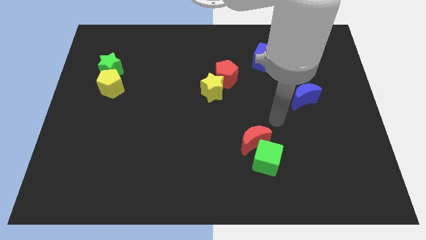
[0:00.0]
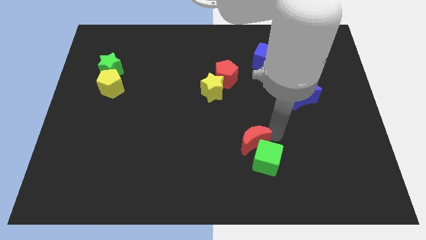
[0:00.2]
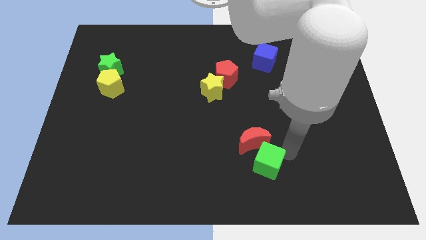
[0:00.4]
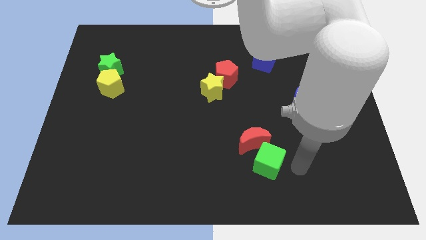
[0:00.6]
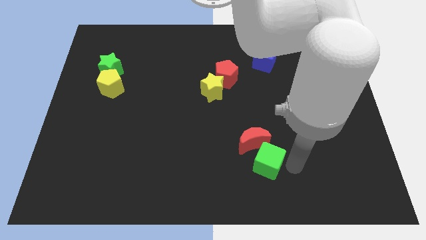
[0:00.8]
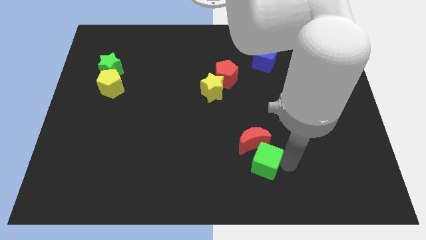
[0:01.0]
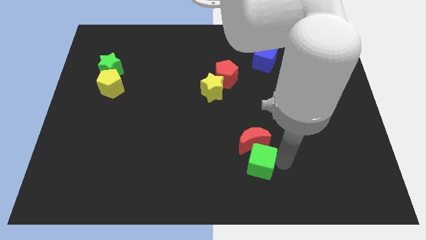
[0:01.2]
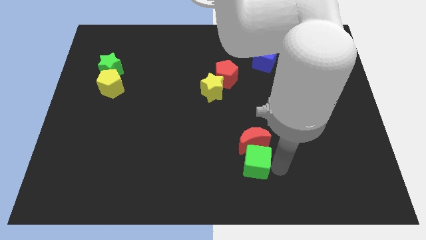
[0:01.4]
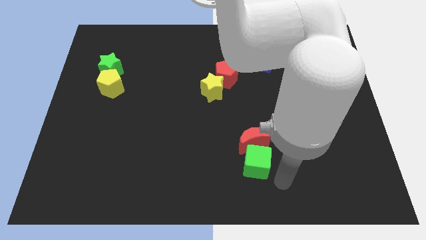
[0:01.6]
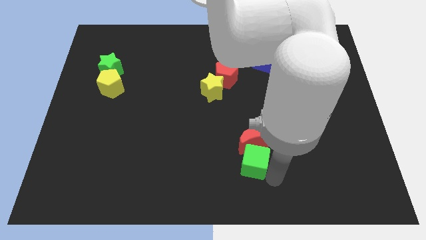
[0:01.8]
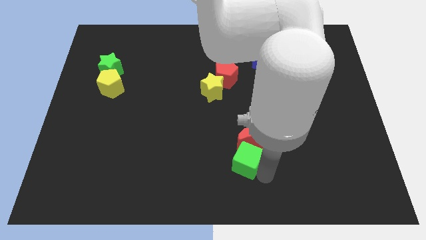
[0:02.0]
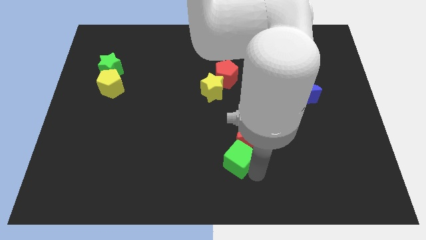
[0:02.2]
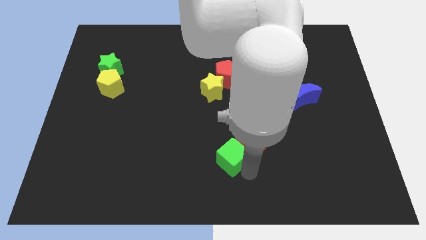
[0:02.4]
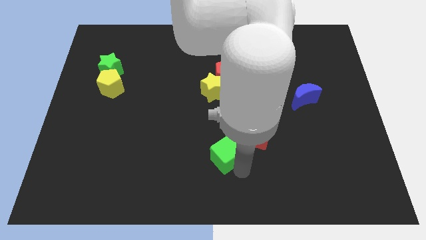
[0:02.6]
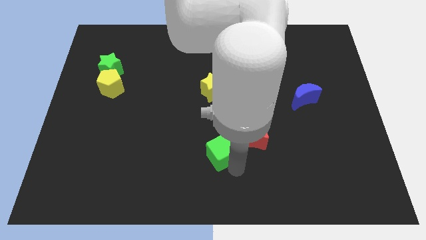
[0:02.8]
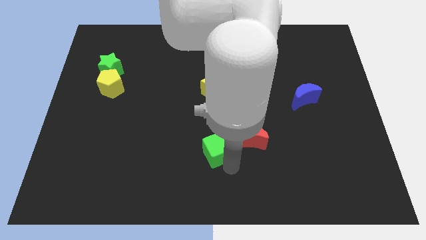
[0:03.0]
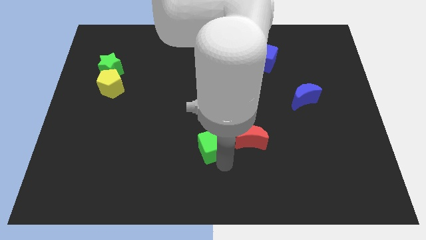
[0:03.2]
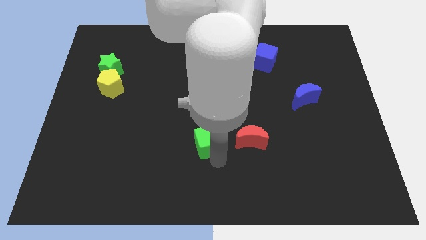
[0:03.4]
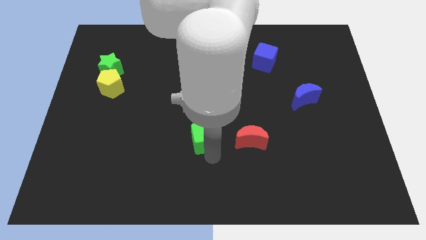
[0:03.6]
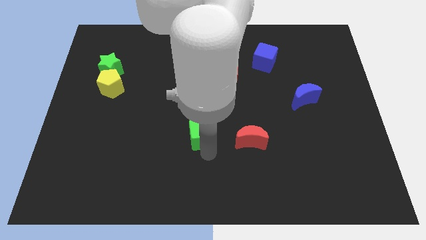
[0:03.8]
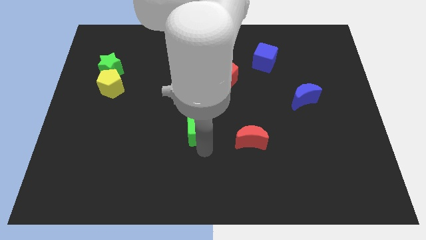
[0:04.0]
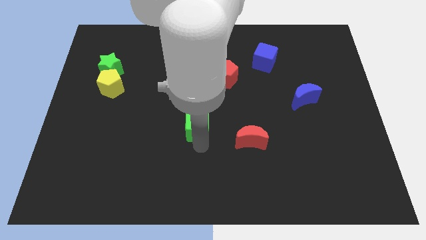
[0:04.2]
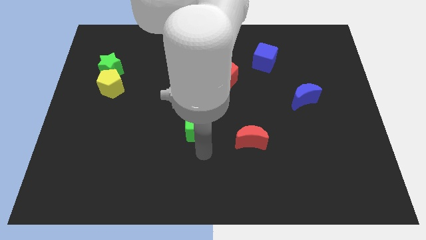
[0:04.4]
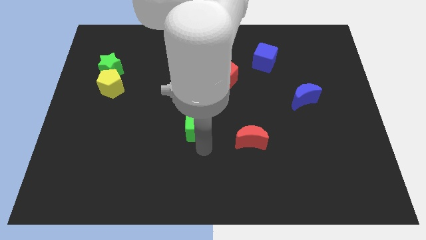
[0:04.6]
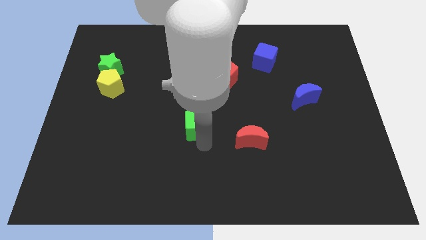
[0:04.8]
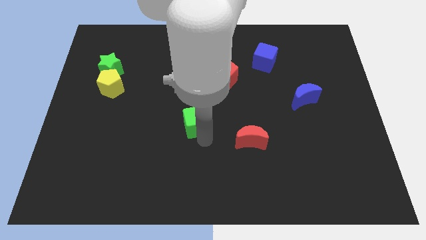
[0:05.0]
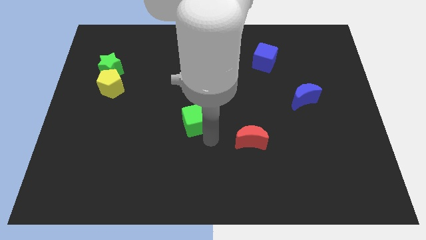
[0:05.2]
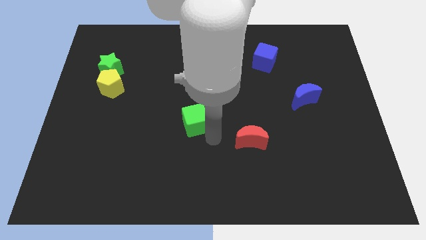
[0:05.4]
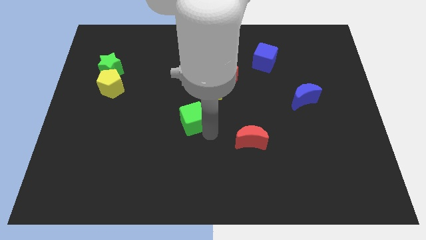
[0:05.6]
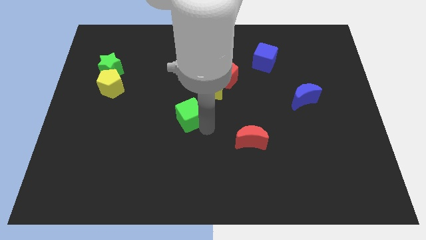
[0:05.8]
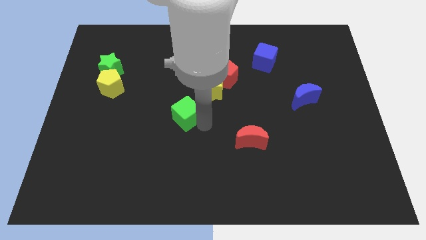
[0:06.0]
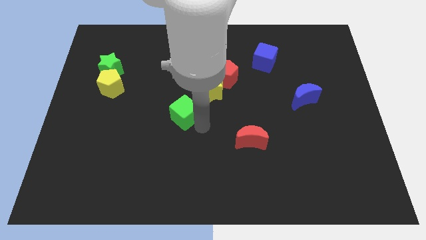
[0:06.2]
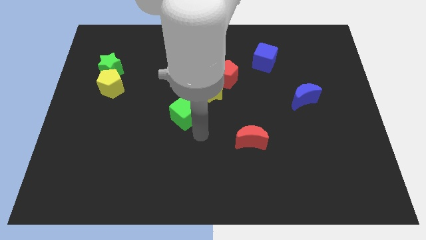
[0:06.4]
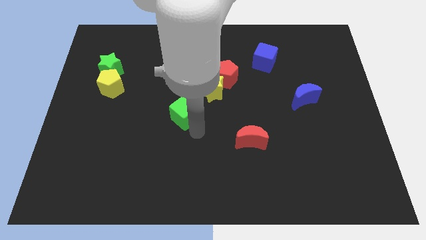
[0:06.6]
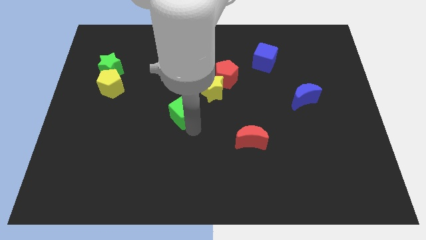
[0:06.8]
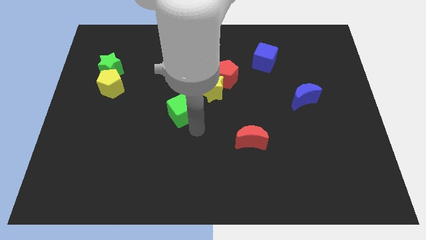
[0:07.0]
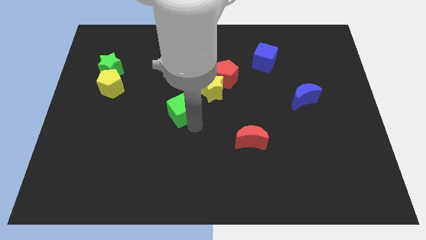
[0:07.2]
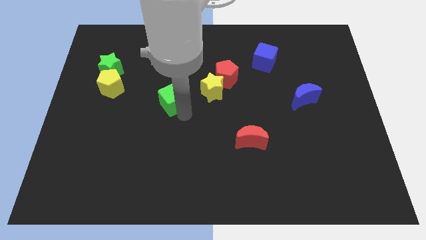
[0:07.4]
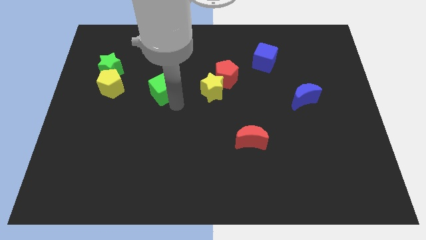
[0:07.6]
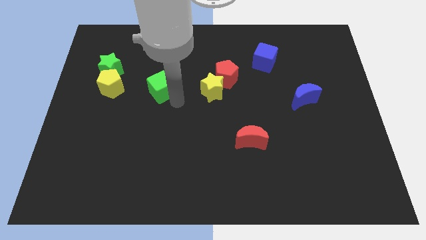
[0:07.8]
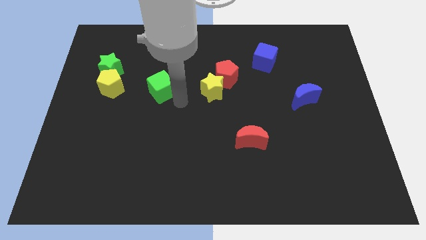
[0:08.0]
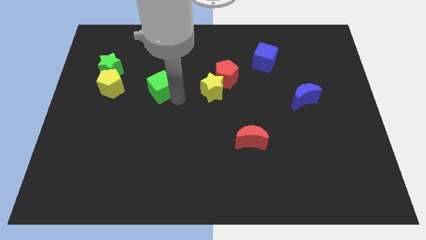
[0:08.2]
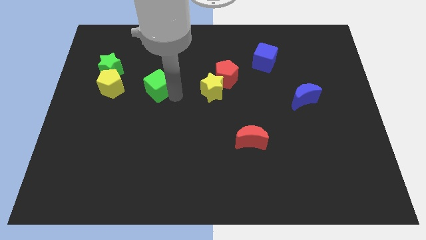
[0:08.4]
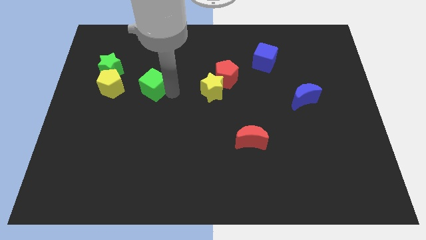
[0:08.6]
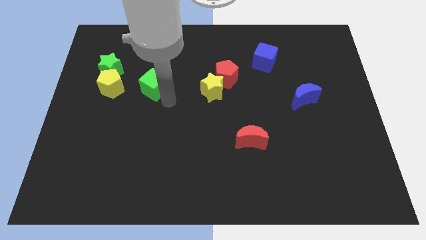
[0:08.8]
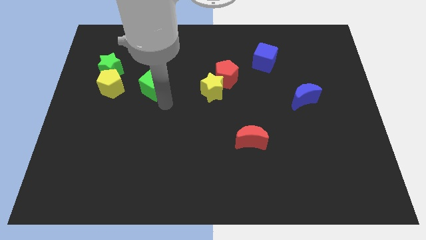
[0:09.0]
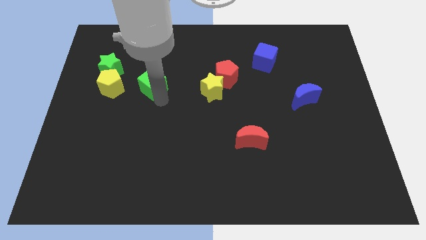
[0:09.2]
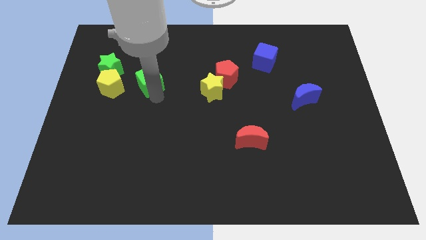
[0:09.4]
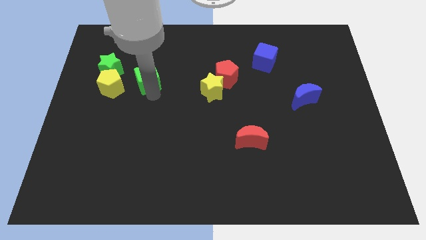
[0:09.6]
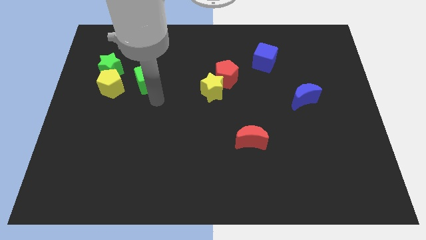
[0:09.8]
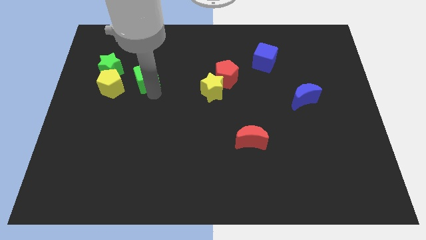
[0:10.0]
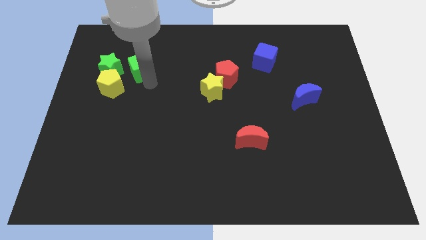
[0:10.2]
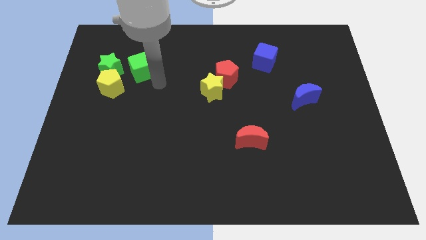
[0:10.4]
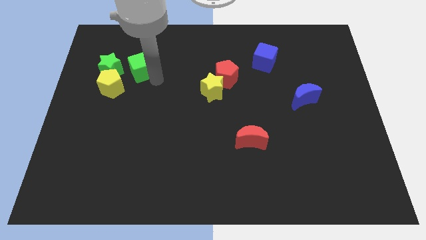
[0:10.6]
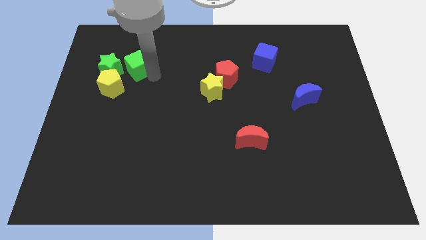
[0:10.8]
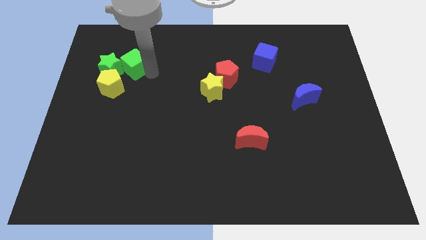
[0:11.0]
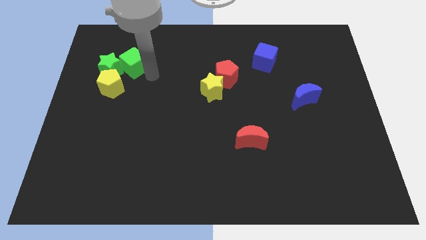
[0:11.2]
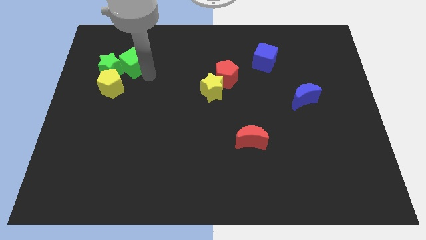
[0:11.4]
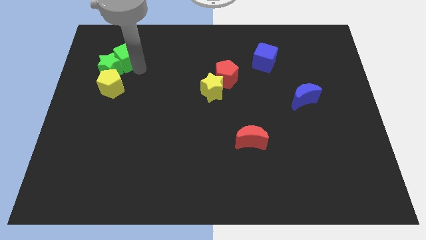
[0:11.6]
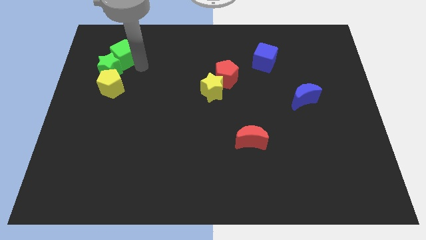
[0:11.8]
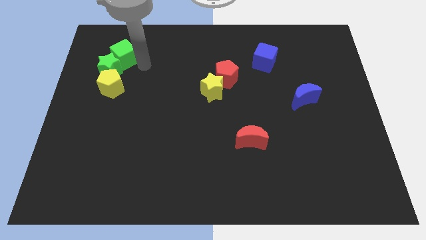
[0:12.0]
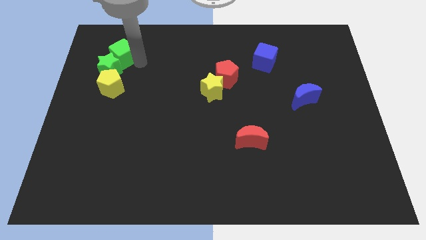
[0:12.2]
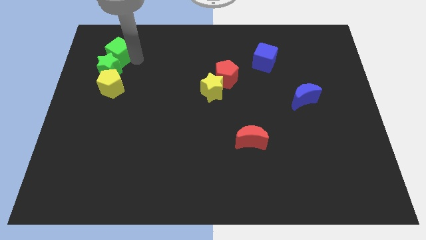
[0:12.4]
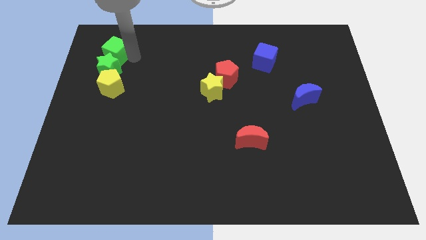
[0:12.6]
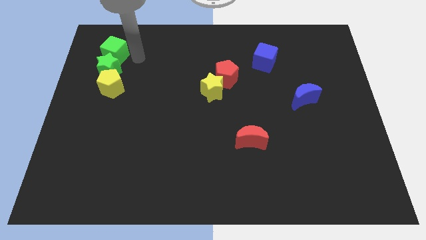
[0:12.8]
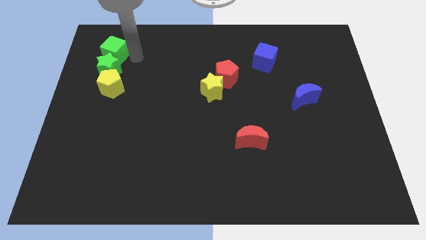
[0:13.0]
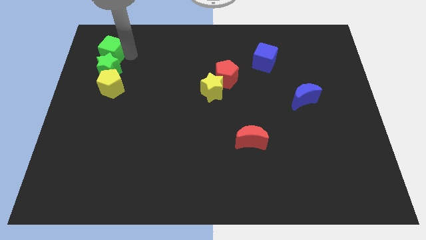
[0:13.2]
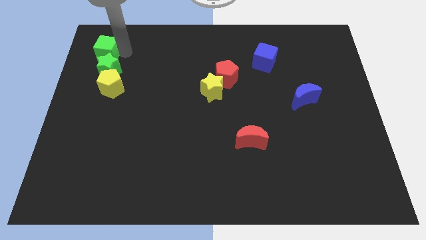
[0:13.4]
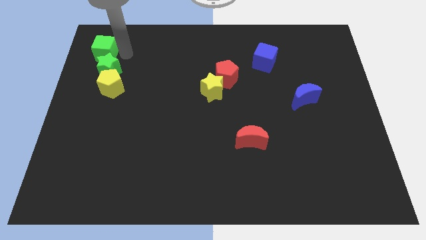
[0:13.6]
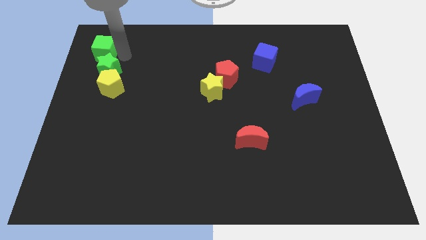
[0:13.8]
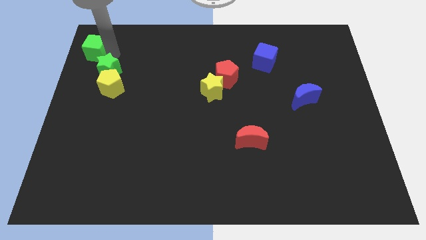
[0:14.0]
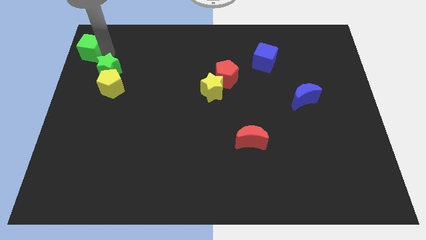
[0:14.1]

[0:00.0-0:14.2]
put the green cube to the top left of the board
